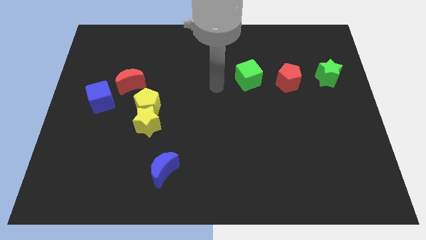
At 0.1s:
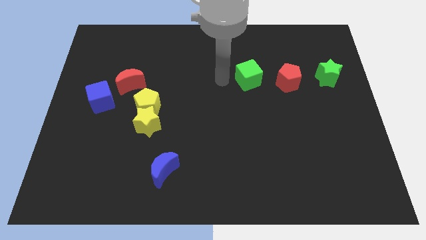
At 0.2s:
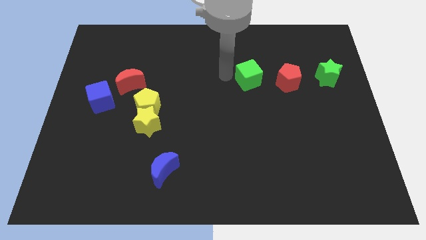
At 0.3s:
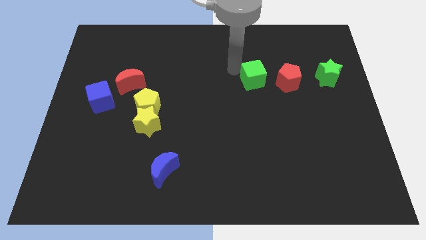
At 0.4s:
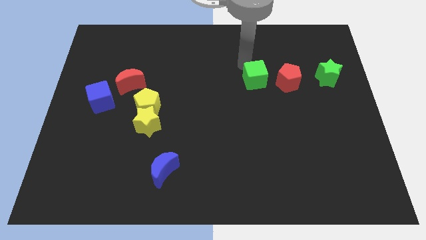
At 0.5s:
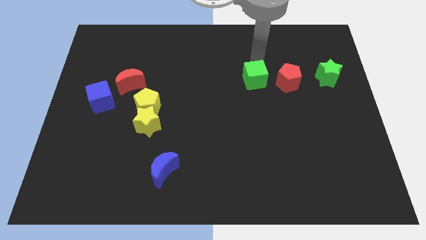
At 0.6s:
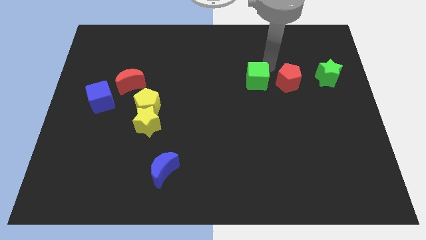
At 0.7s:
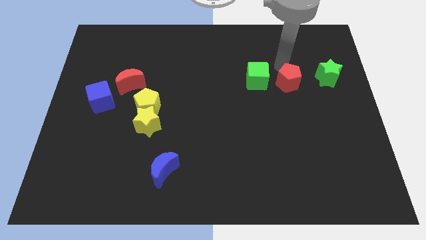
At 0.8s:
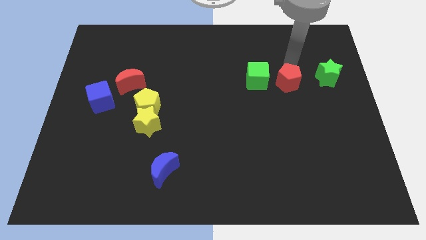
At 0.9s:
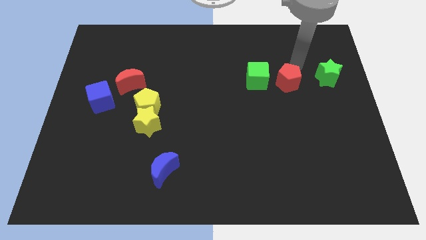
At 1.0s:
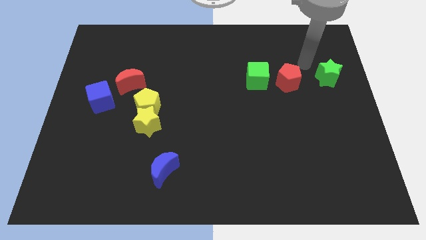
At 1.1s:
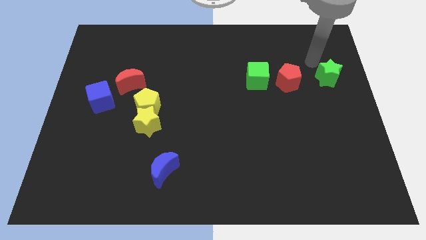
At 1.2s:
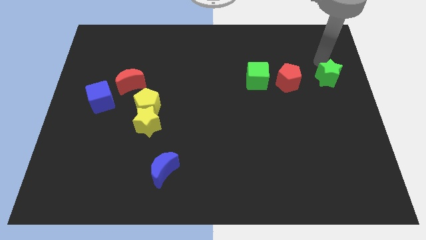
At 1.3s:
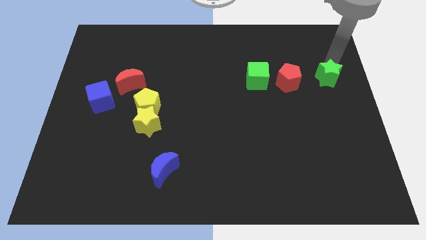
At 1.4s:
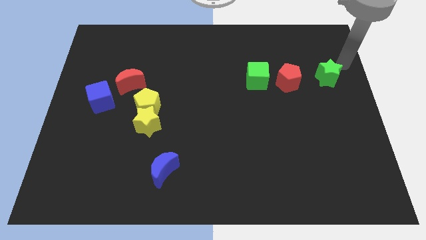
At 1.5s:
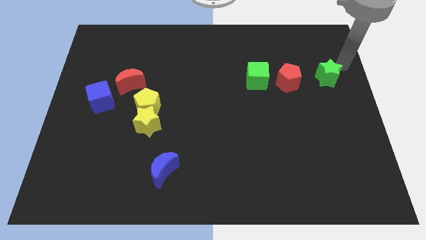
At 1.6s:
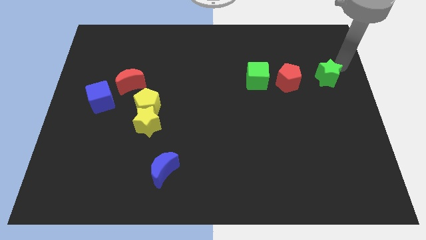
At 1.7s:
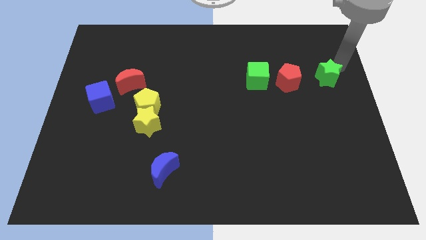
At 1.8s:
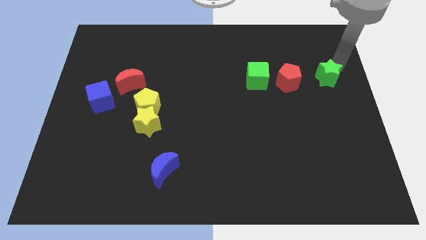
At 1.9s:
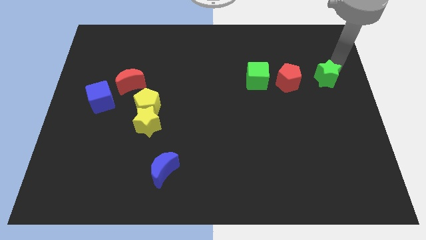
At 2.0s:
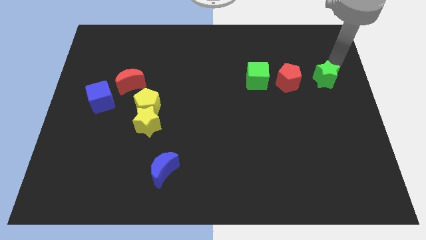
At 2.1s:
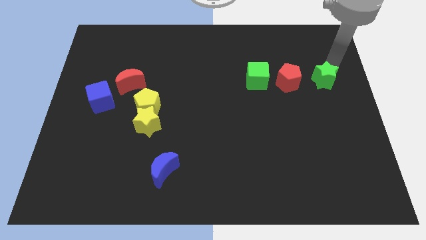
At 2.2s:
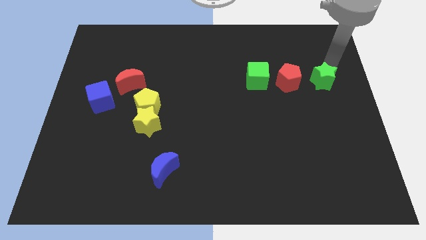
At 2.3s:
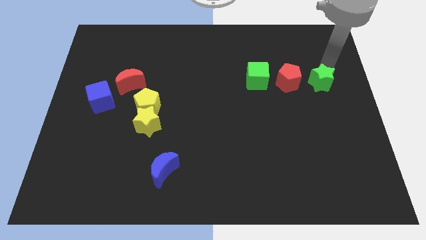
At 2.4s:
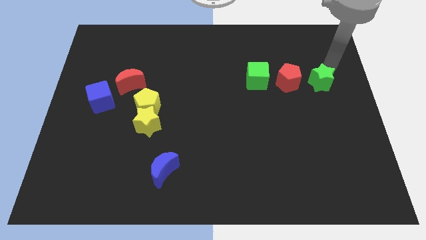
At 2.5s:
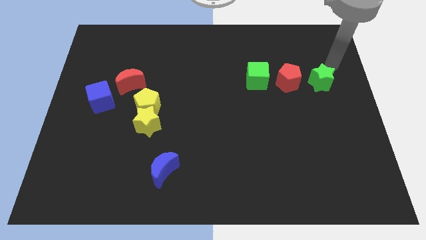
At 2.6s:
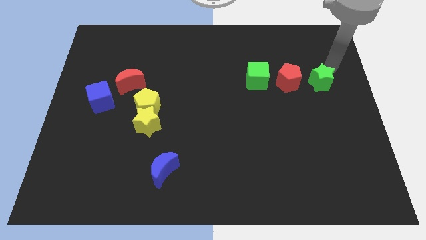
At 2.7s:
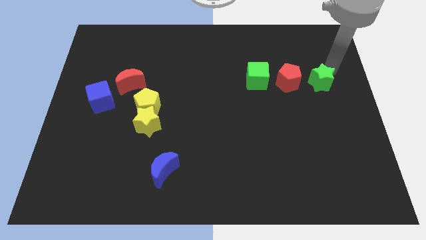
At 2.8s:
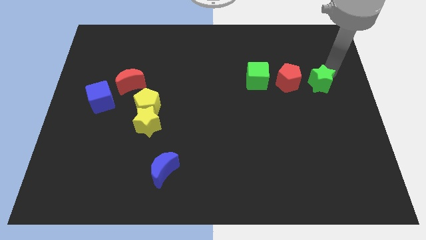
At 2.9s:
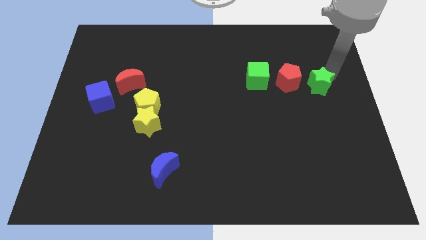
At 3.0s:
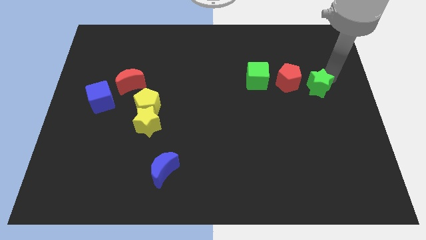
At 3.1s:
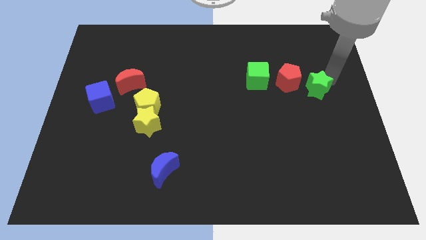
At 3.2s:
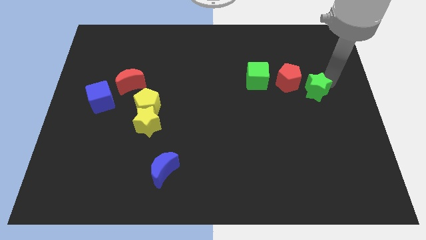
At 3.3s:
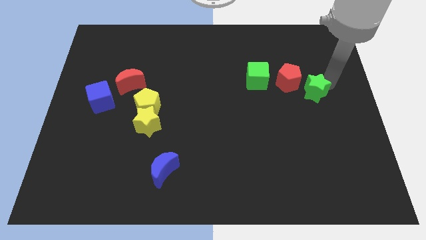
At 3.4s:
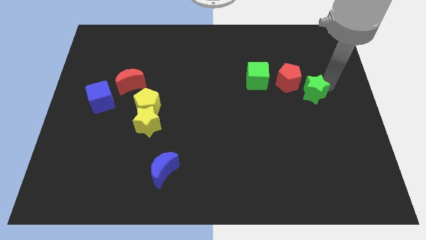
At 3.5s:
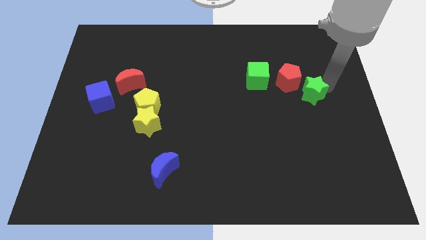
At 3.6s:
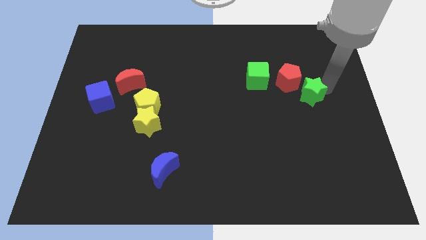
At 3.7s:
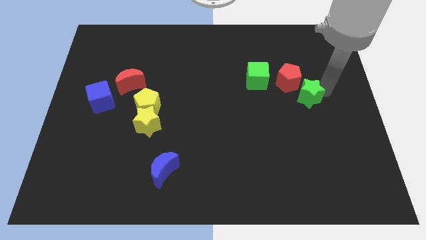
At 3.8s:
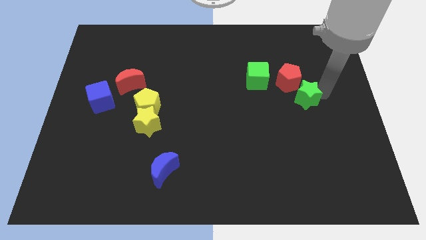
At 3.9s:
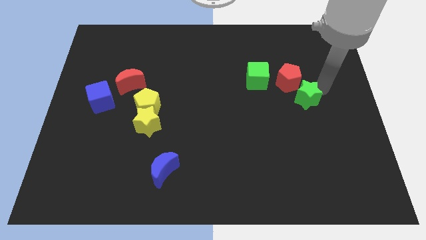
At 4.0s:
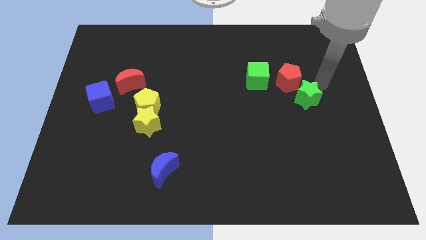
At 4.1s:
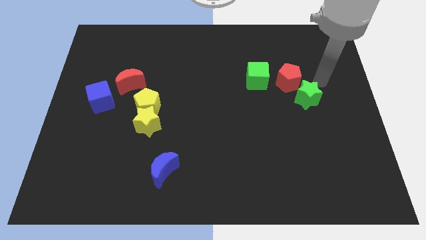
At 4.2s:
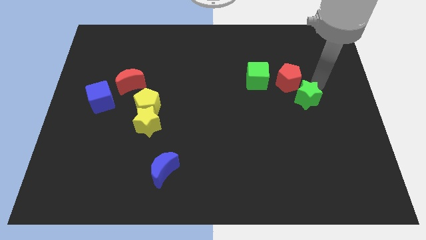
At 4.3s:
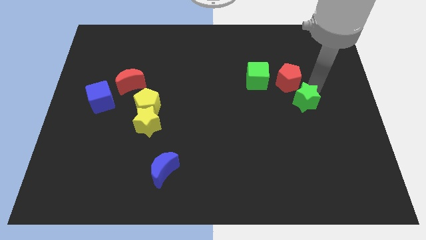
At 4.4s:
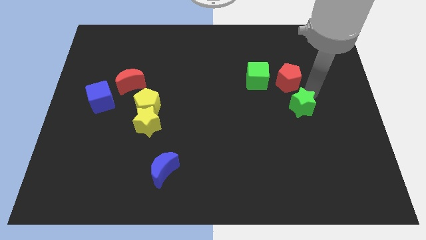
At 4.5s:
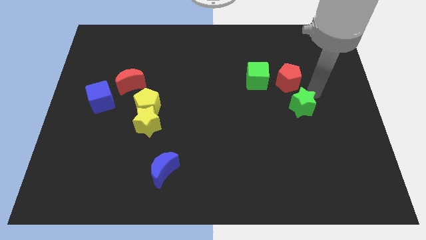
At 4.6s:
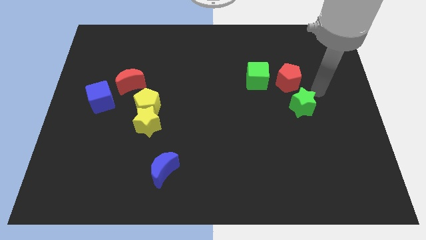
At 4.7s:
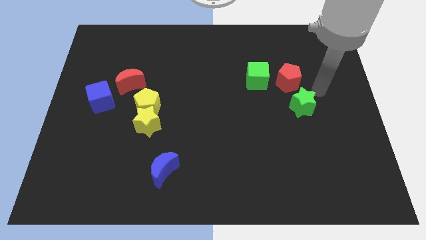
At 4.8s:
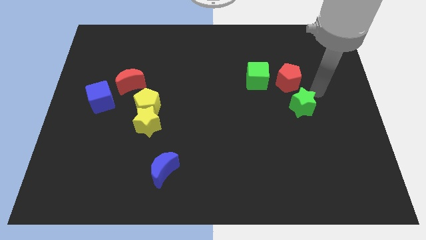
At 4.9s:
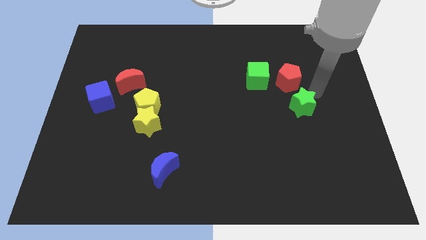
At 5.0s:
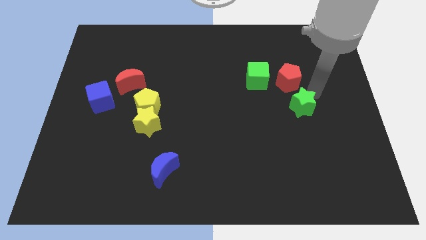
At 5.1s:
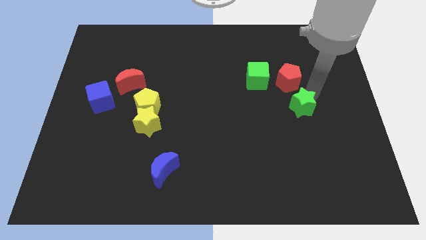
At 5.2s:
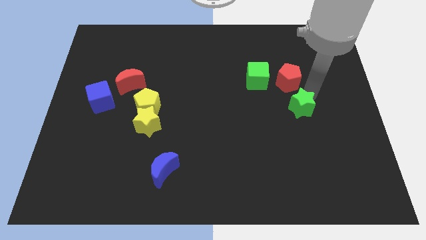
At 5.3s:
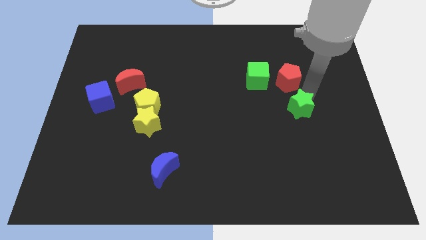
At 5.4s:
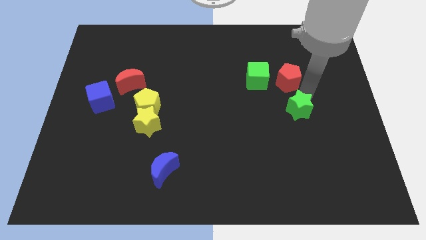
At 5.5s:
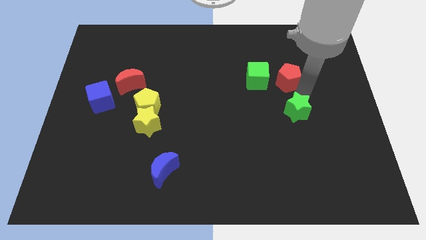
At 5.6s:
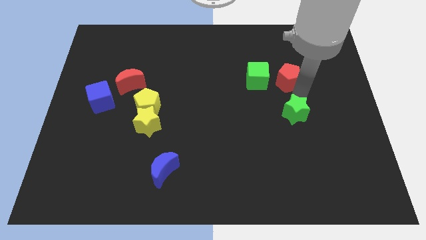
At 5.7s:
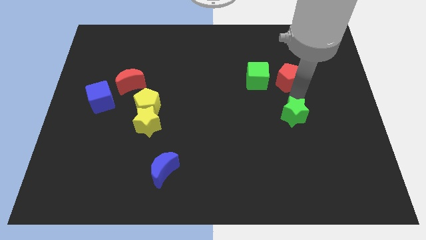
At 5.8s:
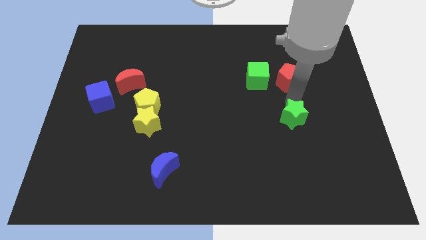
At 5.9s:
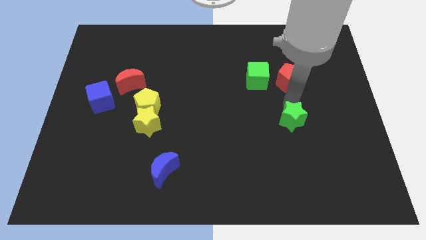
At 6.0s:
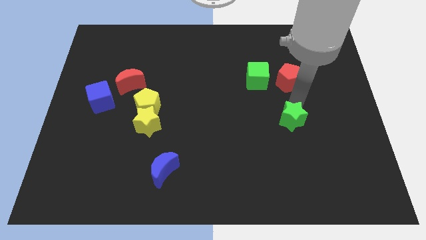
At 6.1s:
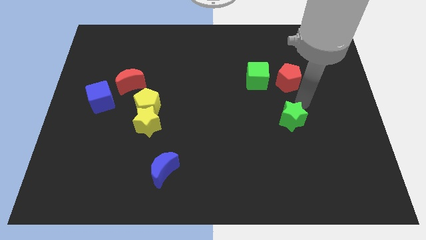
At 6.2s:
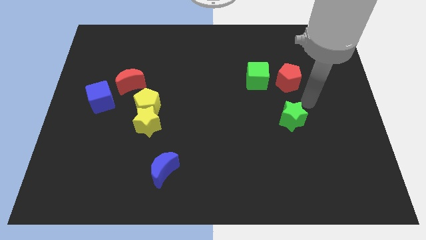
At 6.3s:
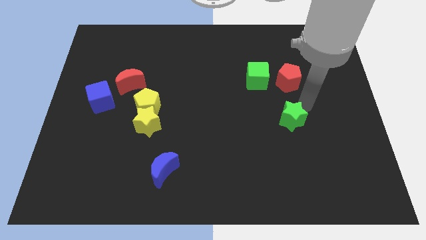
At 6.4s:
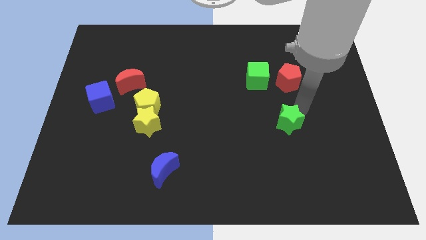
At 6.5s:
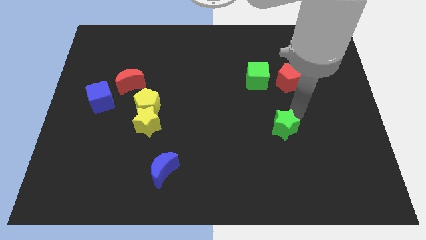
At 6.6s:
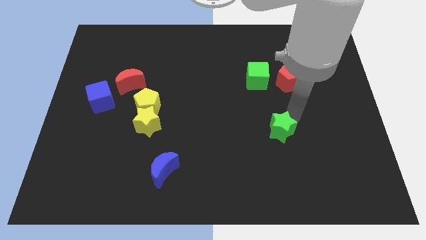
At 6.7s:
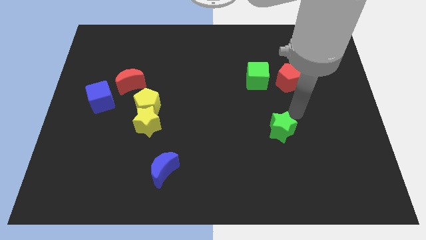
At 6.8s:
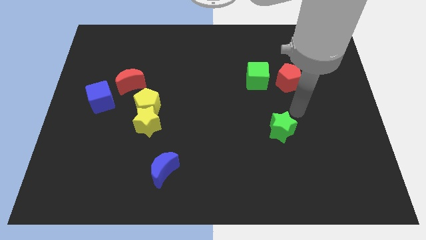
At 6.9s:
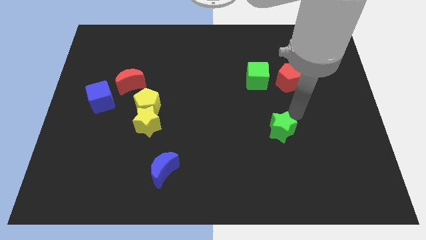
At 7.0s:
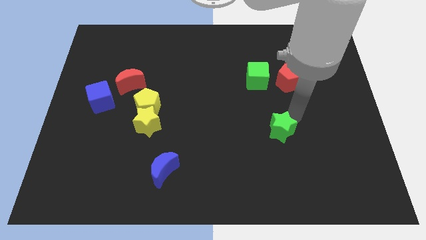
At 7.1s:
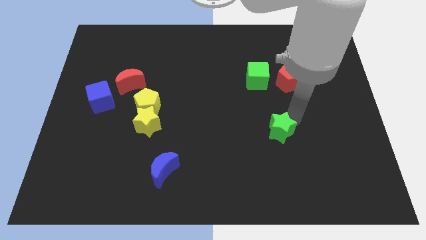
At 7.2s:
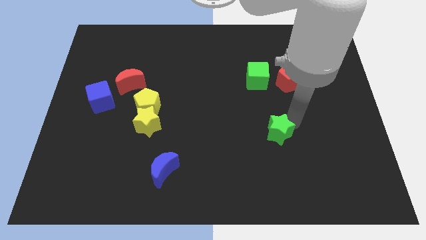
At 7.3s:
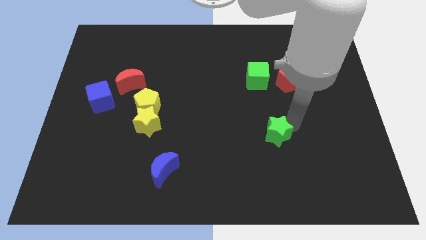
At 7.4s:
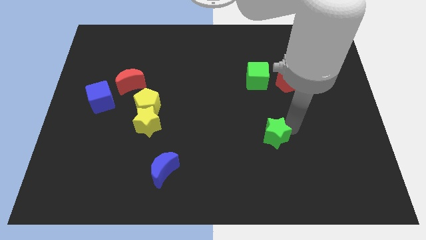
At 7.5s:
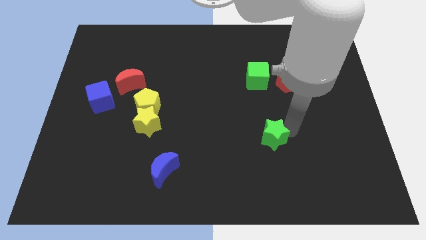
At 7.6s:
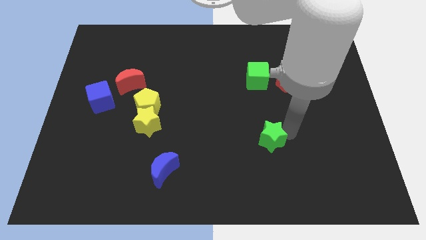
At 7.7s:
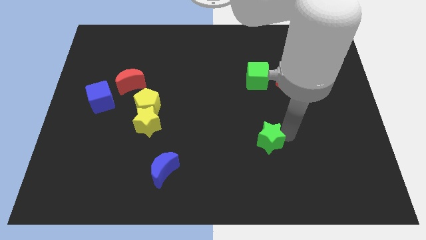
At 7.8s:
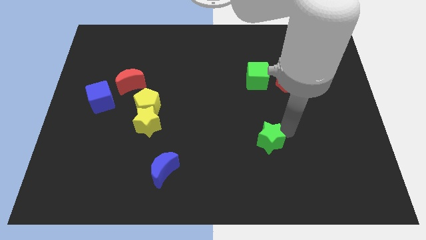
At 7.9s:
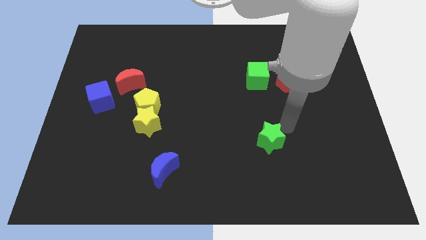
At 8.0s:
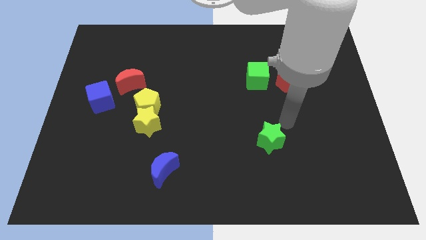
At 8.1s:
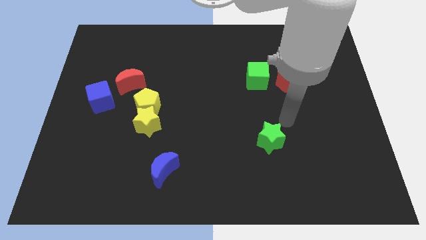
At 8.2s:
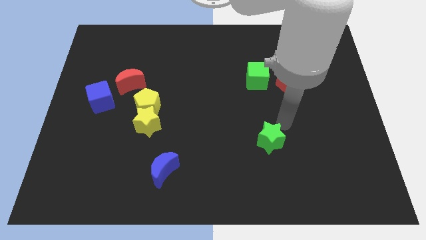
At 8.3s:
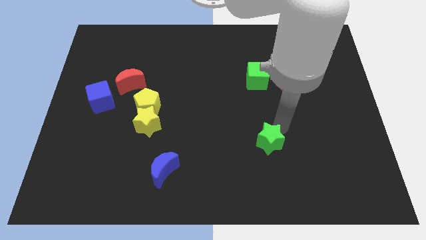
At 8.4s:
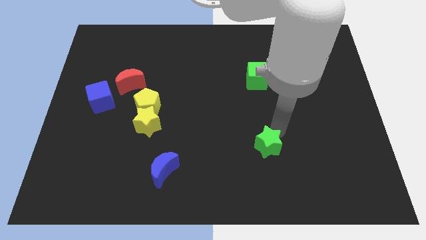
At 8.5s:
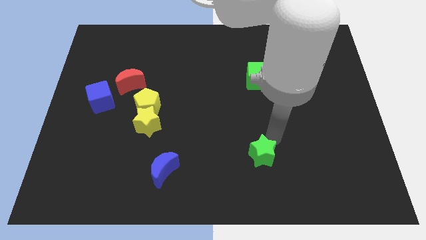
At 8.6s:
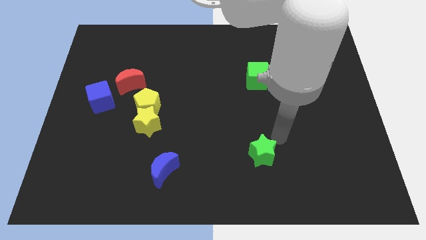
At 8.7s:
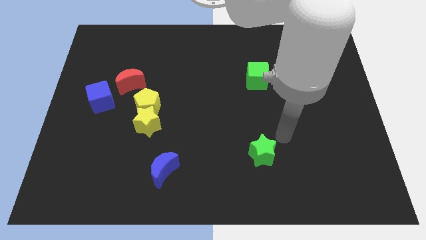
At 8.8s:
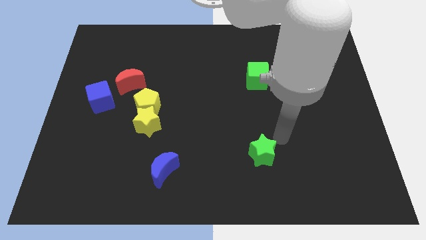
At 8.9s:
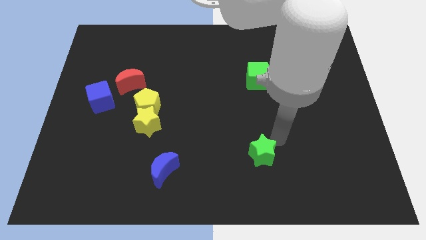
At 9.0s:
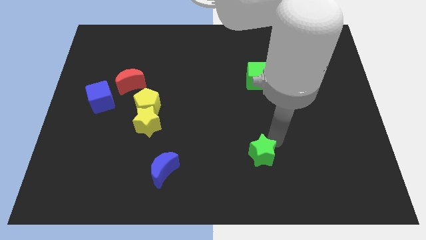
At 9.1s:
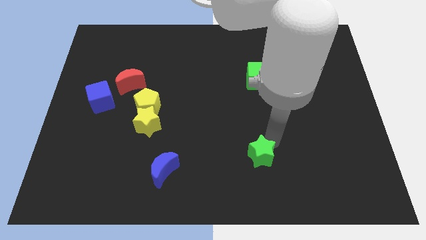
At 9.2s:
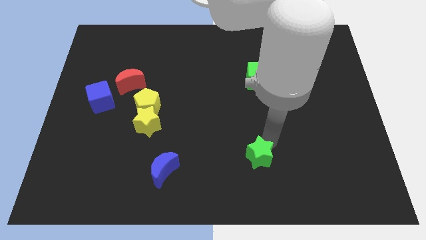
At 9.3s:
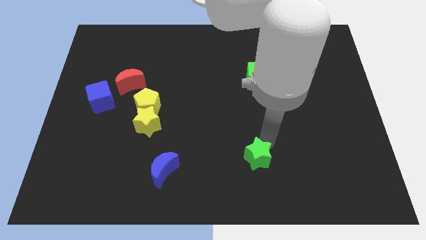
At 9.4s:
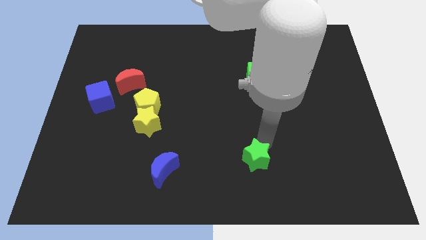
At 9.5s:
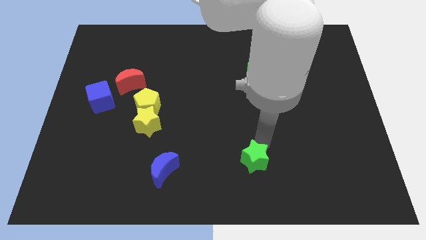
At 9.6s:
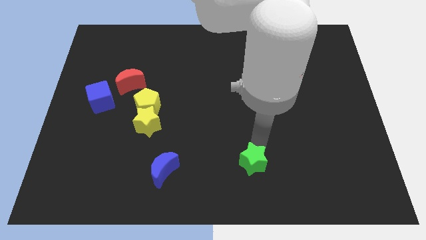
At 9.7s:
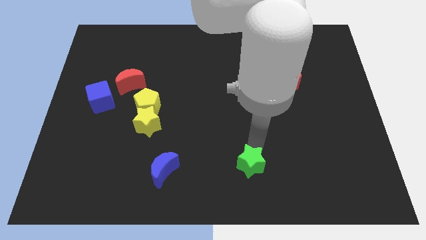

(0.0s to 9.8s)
put the green star to the bottom
